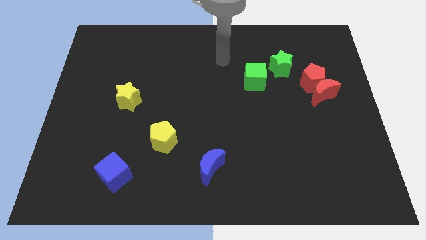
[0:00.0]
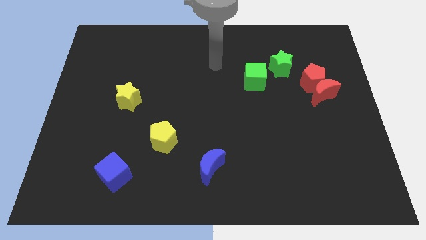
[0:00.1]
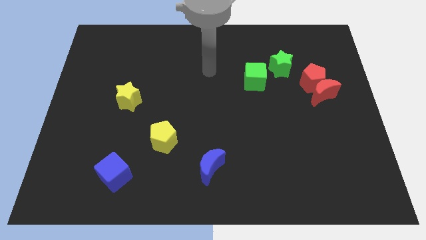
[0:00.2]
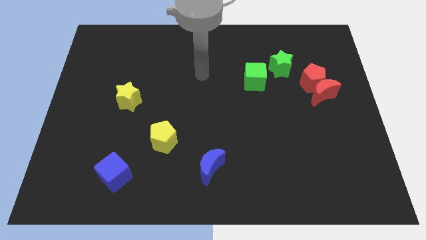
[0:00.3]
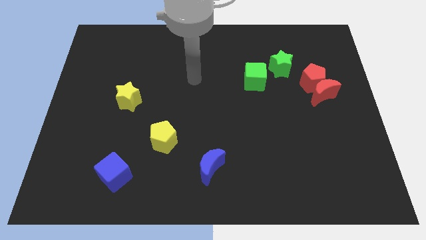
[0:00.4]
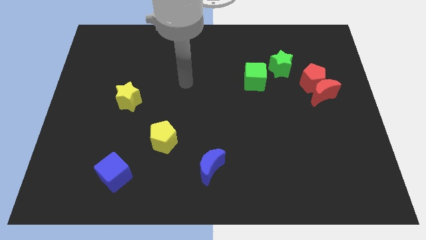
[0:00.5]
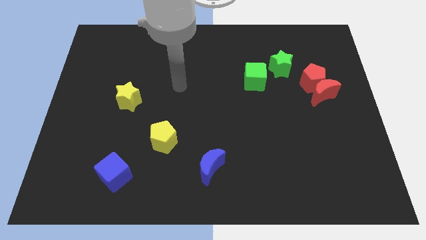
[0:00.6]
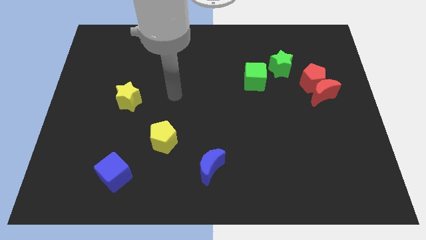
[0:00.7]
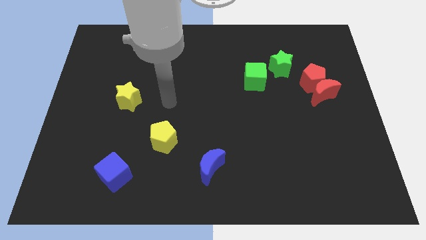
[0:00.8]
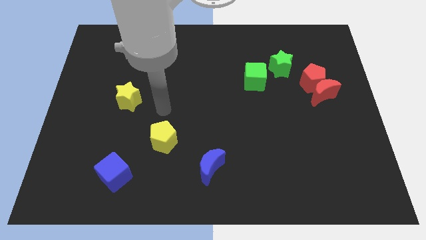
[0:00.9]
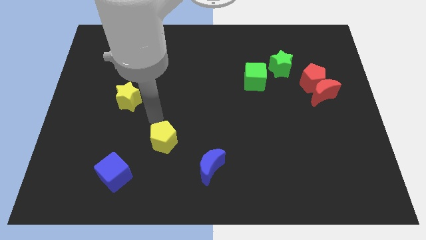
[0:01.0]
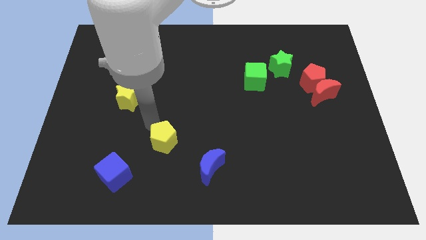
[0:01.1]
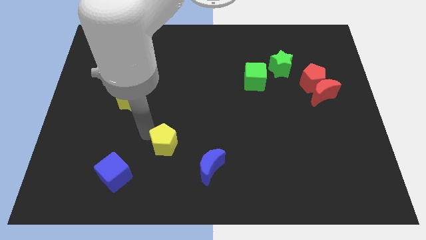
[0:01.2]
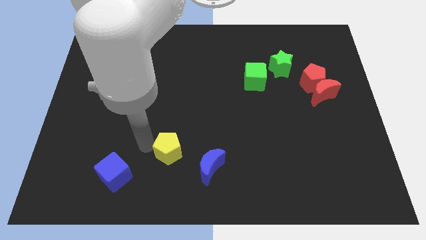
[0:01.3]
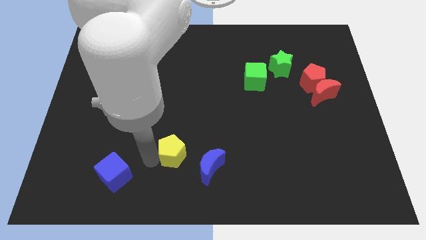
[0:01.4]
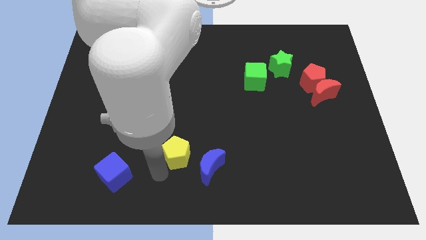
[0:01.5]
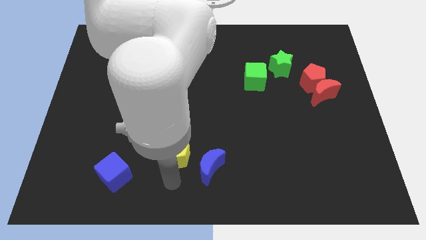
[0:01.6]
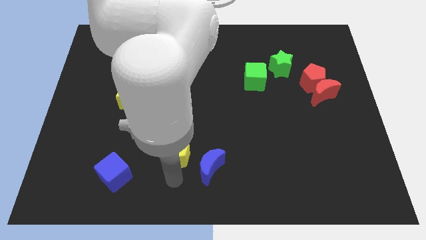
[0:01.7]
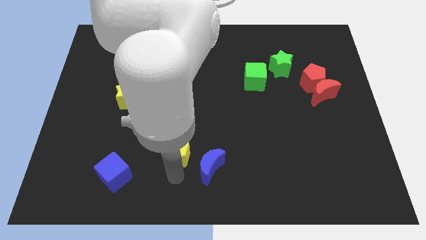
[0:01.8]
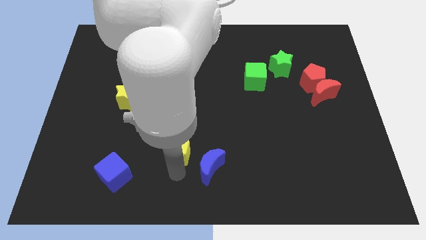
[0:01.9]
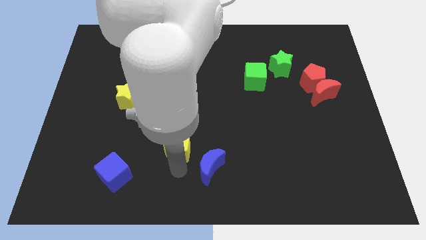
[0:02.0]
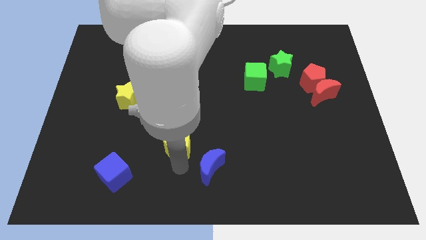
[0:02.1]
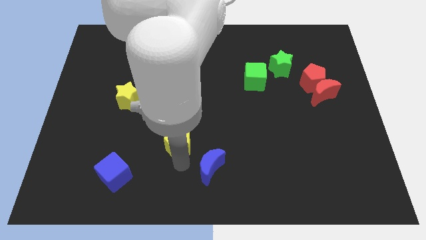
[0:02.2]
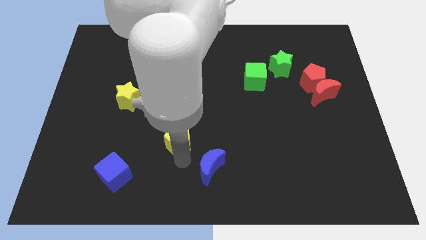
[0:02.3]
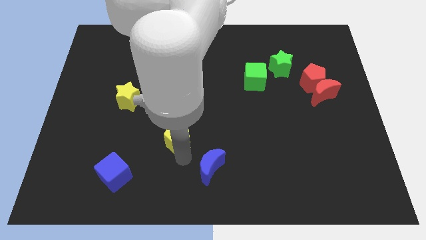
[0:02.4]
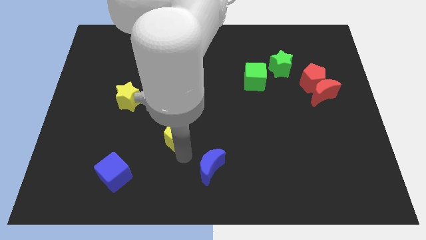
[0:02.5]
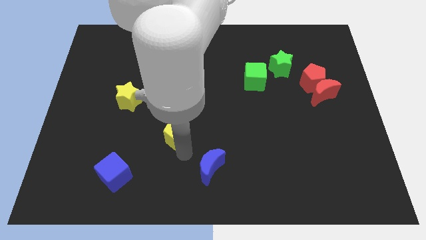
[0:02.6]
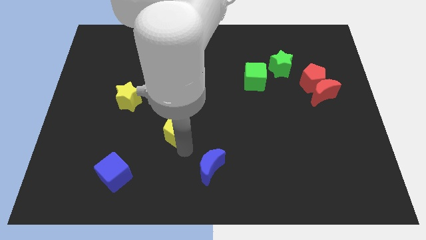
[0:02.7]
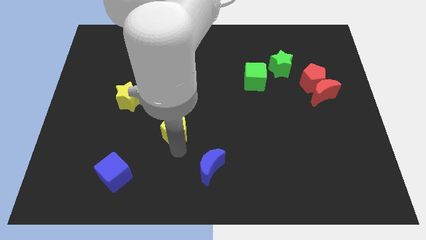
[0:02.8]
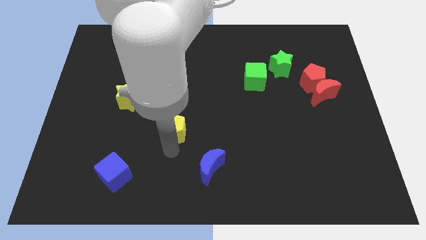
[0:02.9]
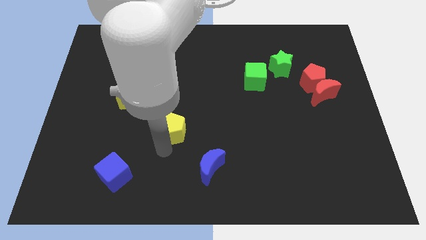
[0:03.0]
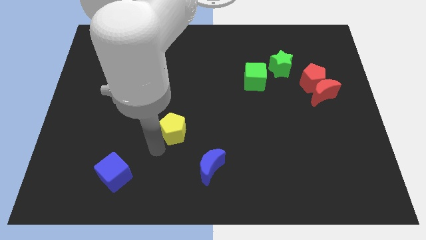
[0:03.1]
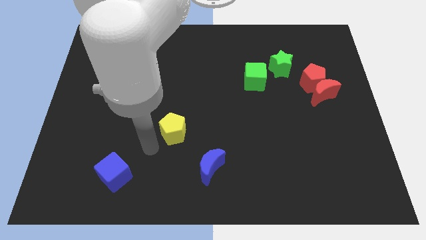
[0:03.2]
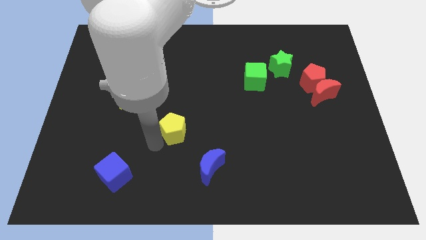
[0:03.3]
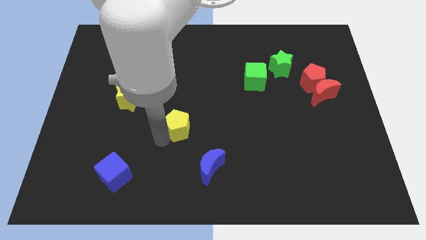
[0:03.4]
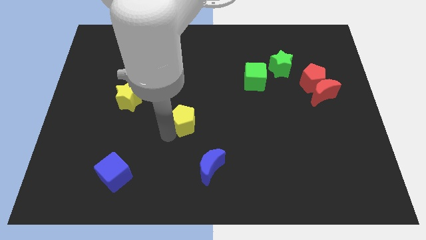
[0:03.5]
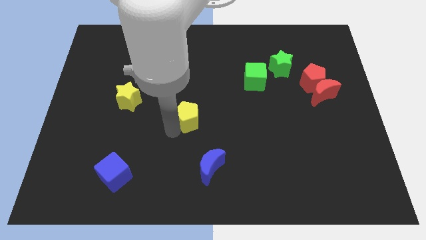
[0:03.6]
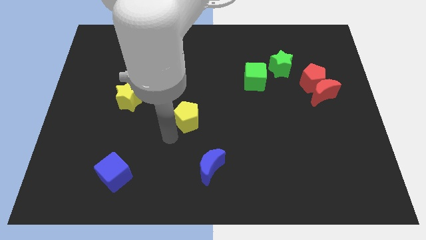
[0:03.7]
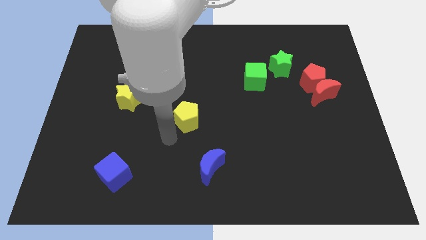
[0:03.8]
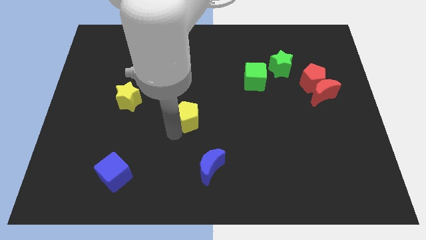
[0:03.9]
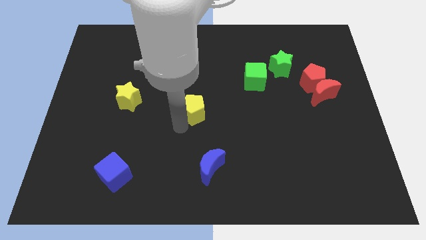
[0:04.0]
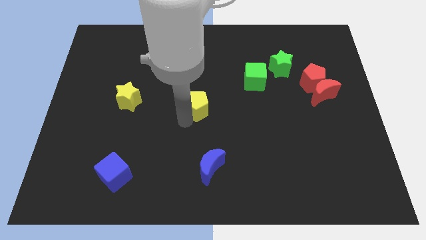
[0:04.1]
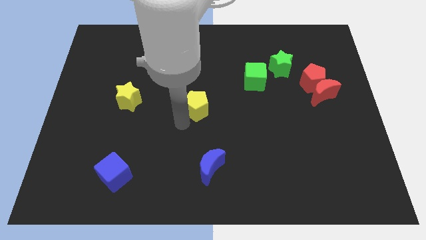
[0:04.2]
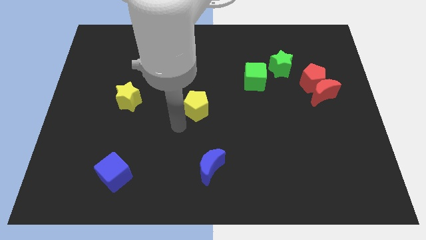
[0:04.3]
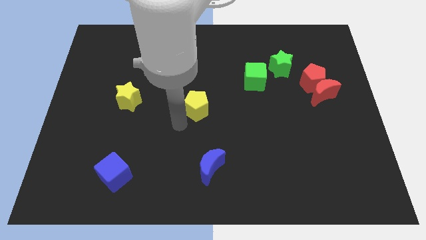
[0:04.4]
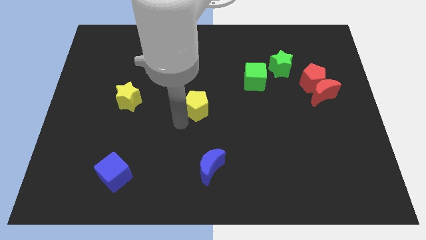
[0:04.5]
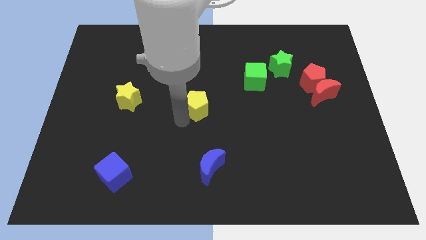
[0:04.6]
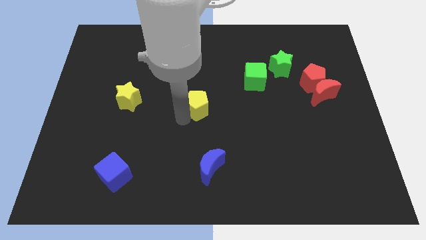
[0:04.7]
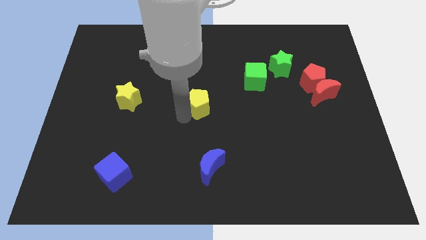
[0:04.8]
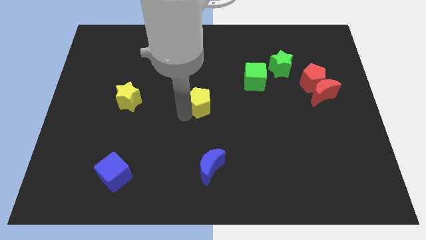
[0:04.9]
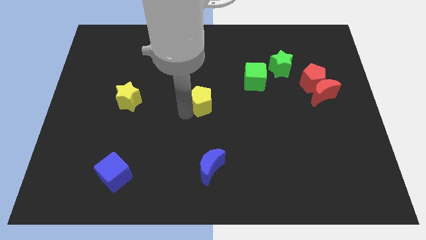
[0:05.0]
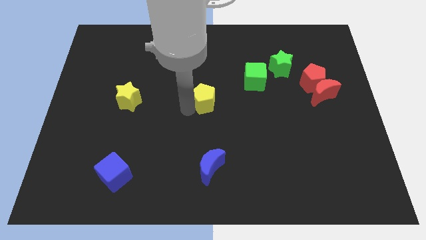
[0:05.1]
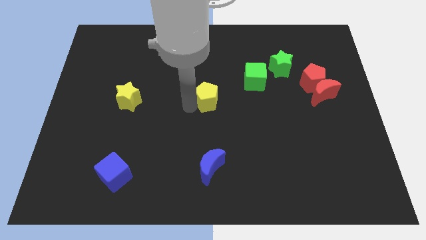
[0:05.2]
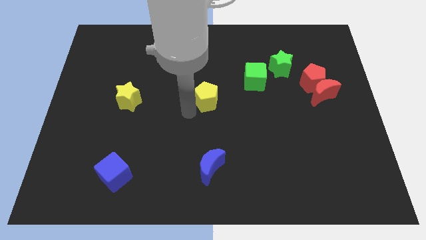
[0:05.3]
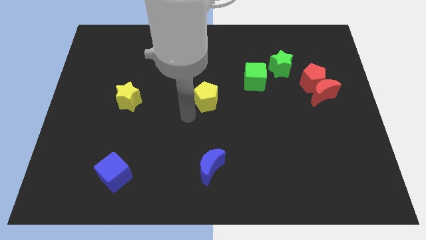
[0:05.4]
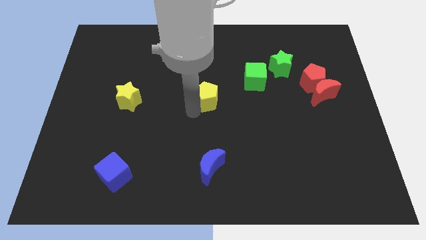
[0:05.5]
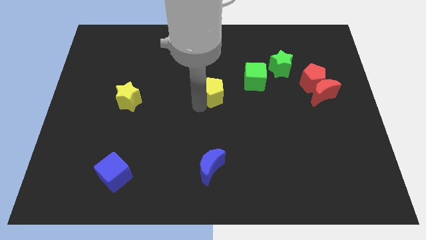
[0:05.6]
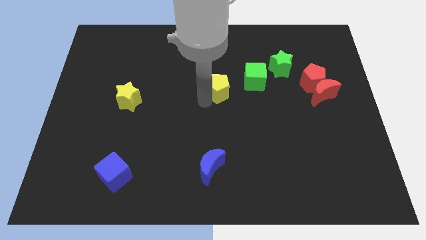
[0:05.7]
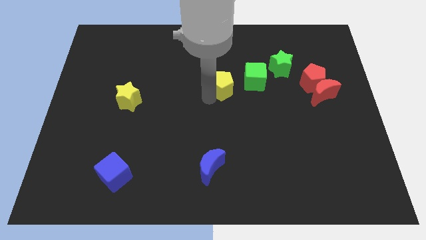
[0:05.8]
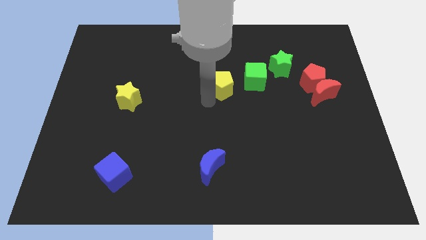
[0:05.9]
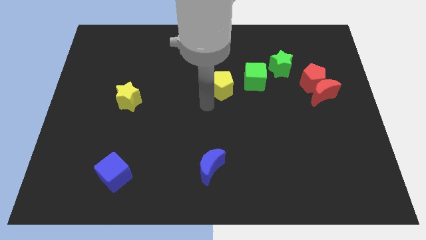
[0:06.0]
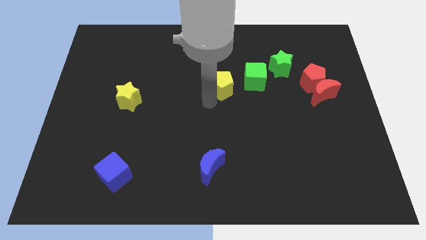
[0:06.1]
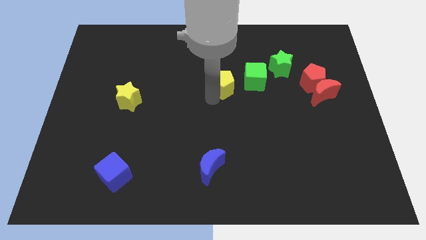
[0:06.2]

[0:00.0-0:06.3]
slide the yellow pentagon upwards and then right

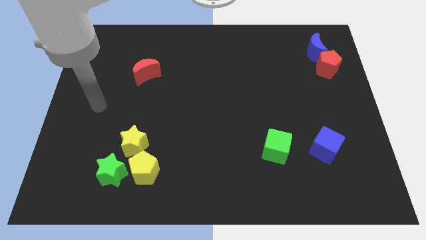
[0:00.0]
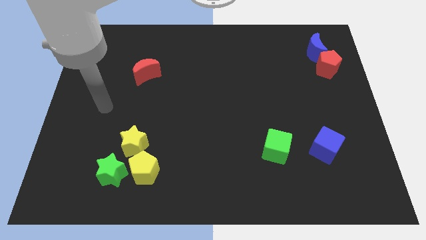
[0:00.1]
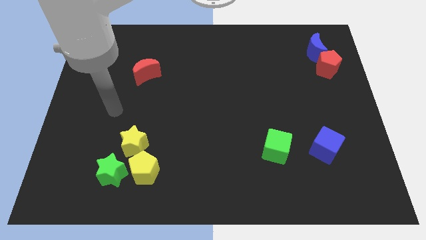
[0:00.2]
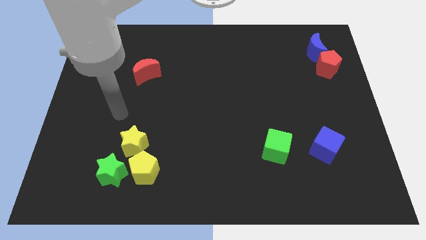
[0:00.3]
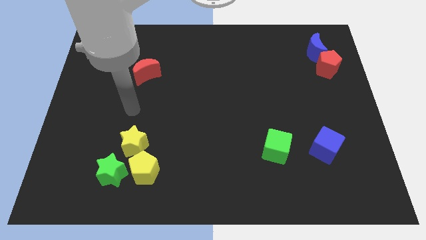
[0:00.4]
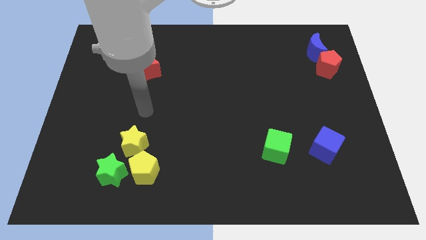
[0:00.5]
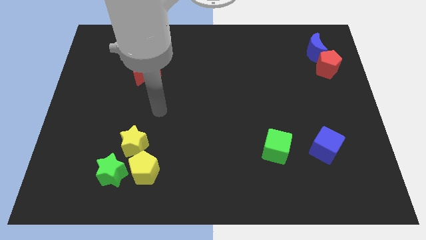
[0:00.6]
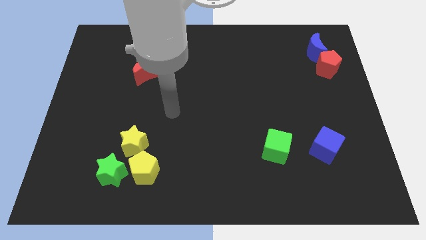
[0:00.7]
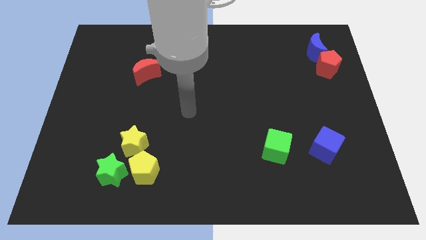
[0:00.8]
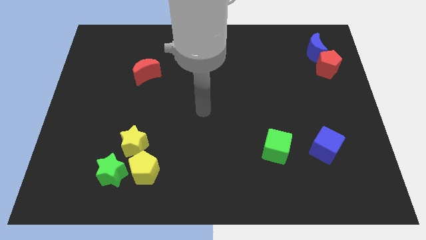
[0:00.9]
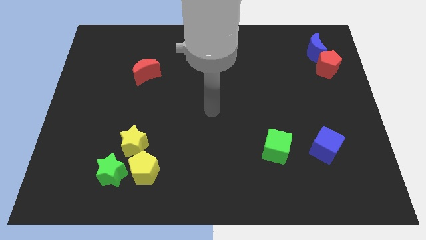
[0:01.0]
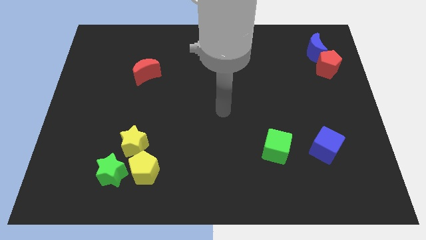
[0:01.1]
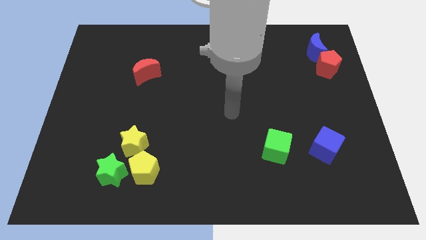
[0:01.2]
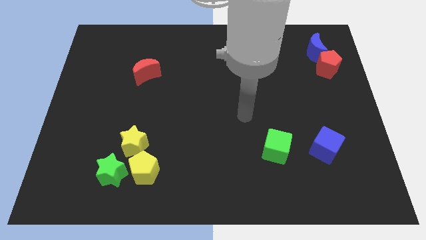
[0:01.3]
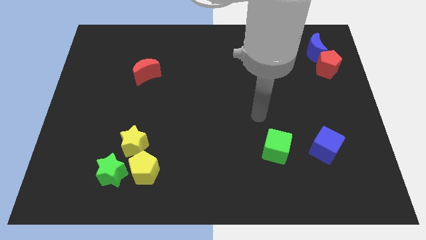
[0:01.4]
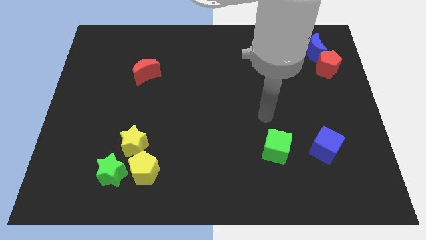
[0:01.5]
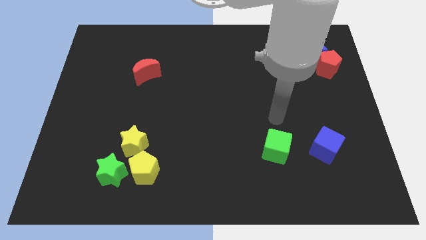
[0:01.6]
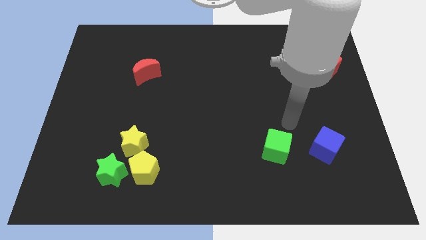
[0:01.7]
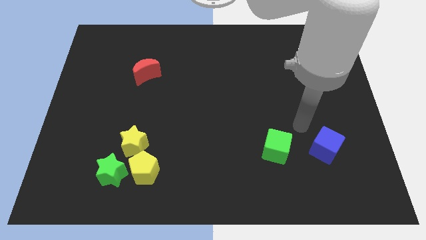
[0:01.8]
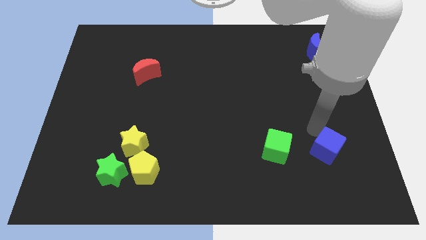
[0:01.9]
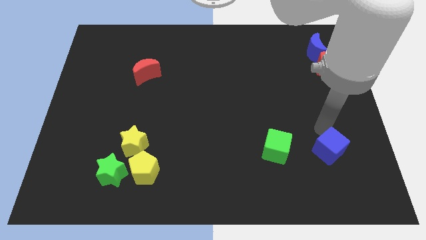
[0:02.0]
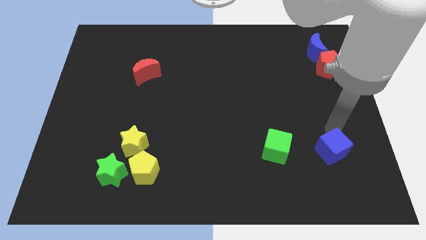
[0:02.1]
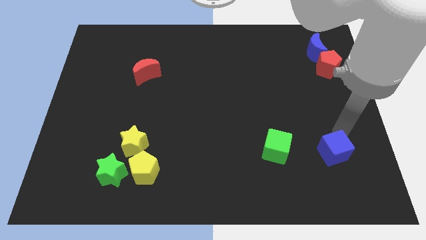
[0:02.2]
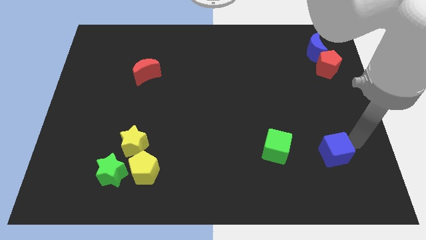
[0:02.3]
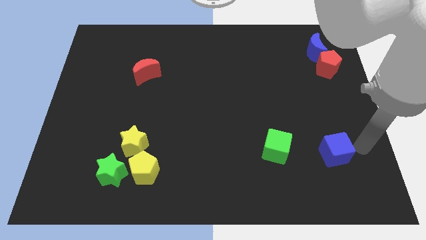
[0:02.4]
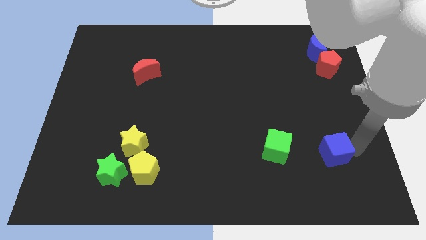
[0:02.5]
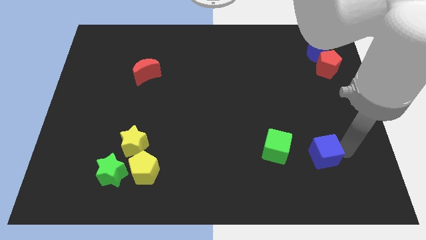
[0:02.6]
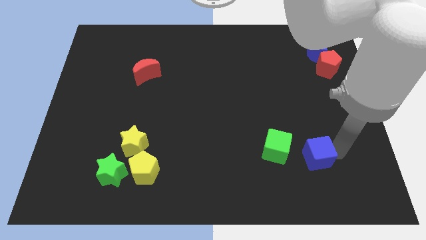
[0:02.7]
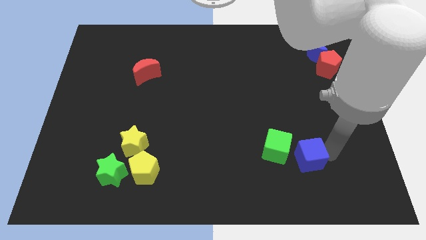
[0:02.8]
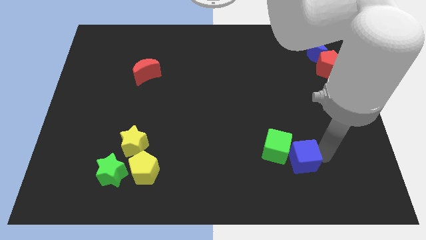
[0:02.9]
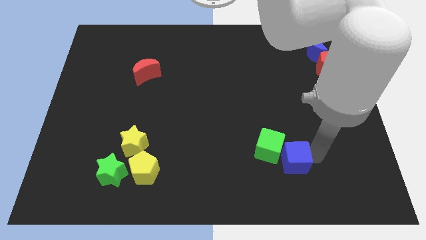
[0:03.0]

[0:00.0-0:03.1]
slightly move the blue cube to the left
